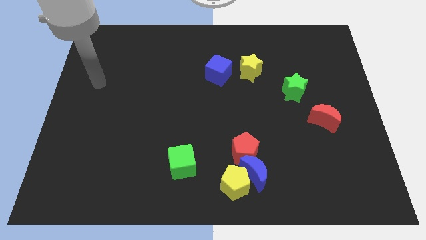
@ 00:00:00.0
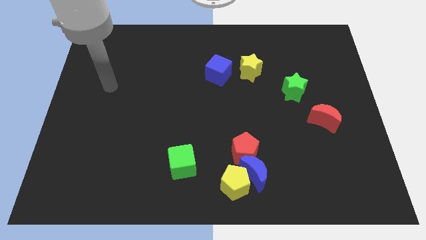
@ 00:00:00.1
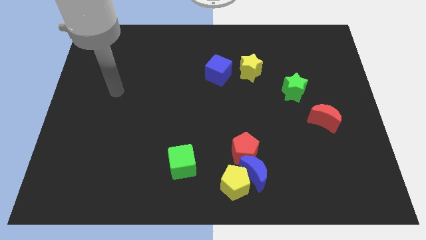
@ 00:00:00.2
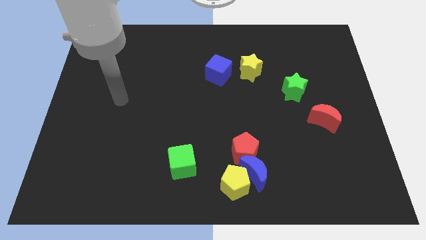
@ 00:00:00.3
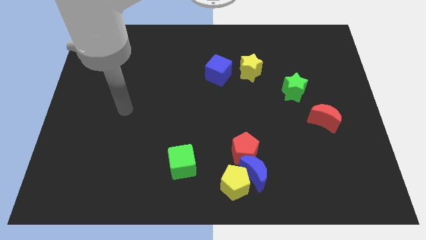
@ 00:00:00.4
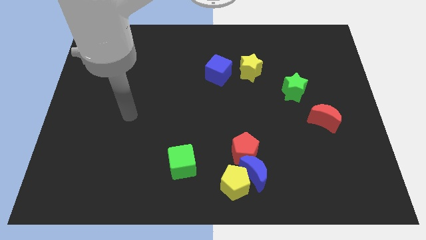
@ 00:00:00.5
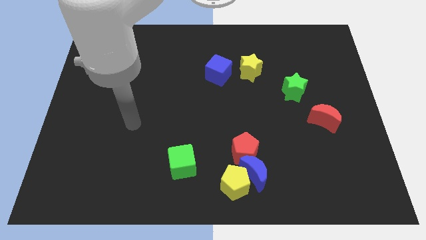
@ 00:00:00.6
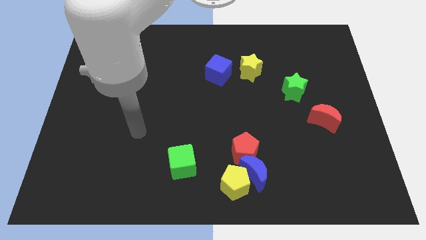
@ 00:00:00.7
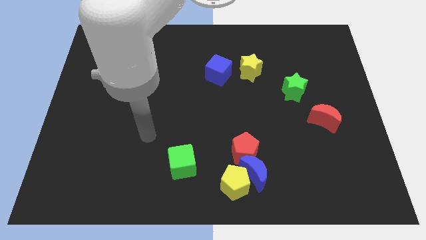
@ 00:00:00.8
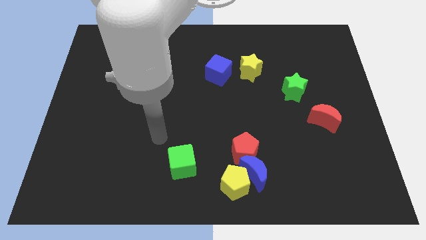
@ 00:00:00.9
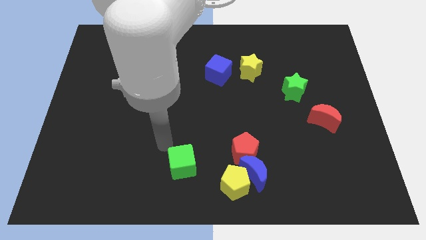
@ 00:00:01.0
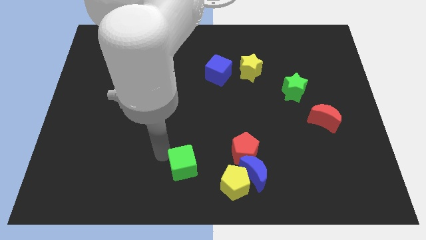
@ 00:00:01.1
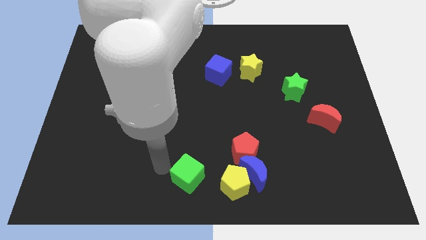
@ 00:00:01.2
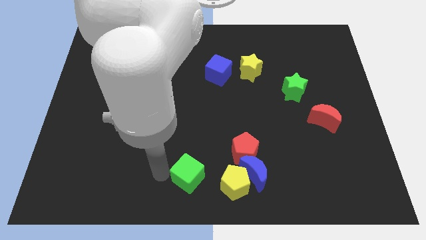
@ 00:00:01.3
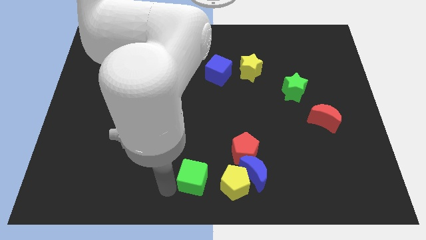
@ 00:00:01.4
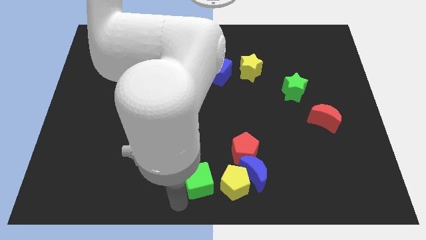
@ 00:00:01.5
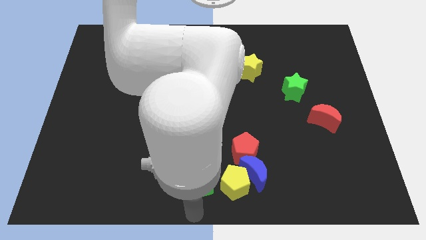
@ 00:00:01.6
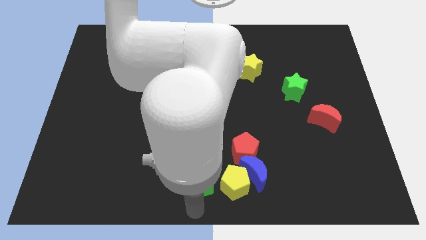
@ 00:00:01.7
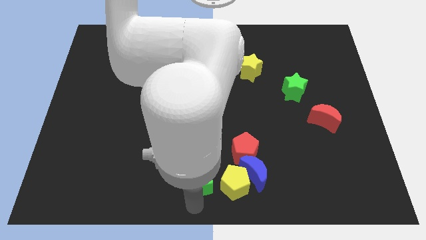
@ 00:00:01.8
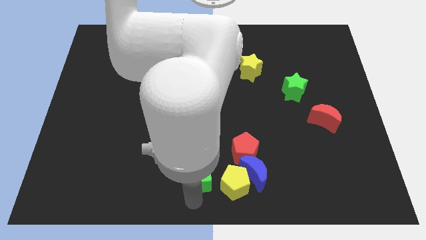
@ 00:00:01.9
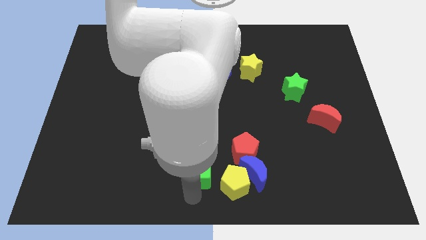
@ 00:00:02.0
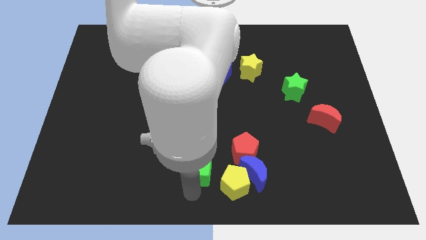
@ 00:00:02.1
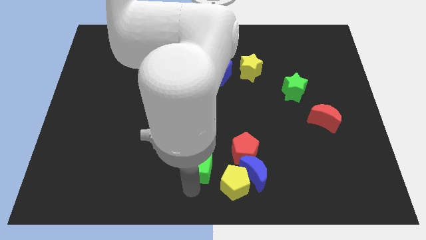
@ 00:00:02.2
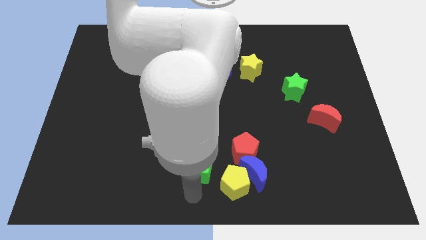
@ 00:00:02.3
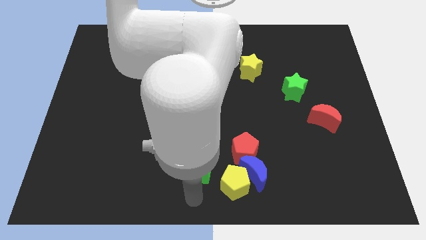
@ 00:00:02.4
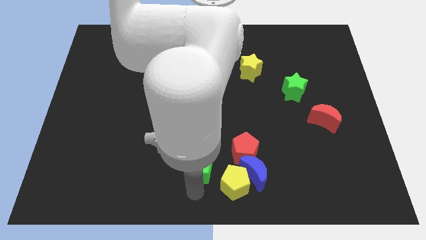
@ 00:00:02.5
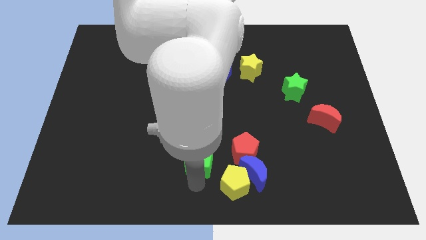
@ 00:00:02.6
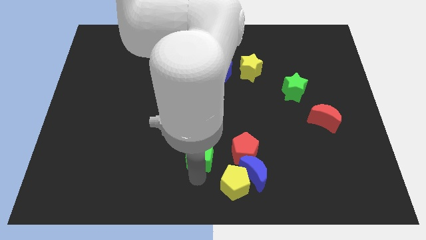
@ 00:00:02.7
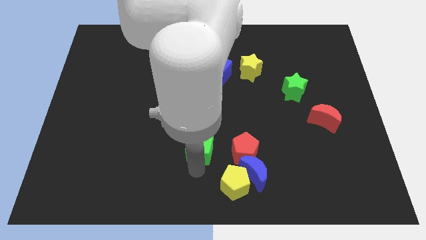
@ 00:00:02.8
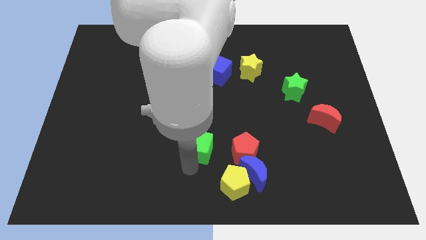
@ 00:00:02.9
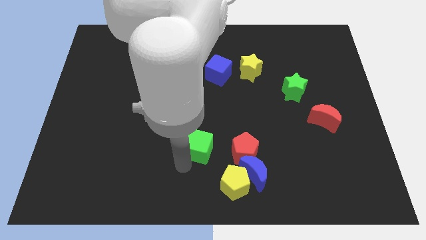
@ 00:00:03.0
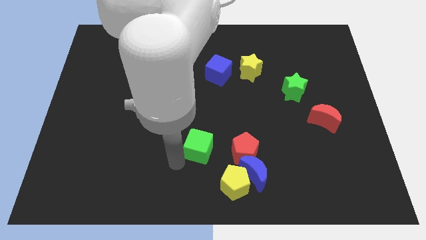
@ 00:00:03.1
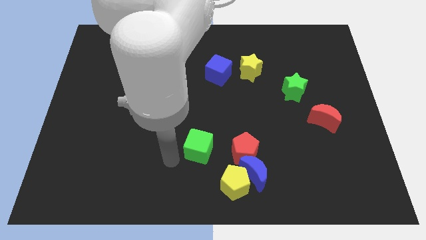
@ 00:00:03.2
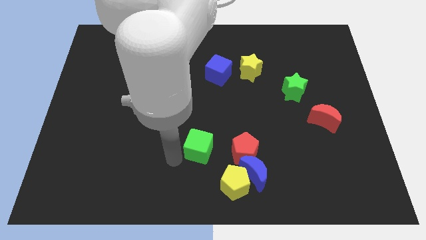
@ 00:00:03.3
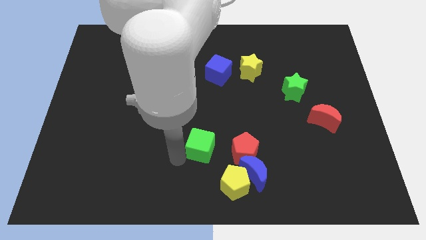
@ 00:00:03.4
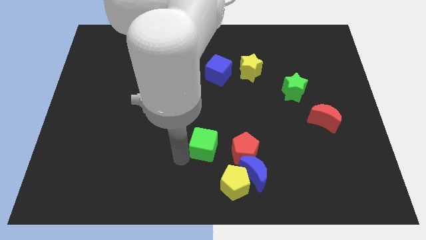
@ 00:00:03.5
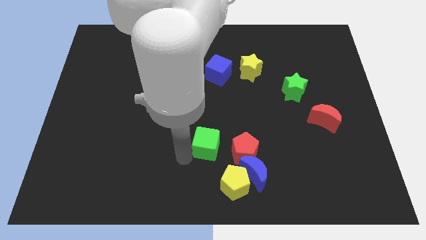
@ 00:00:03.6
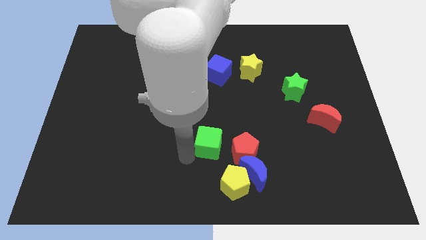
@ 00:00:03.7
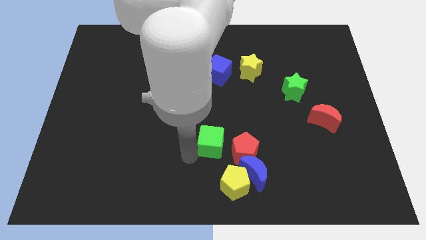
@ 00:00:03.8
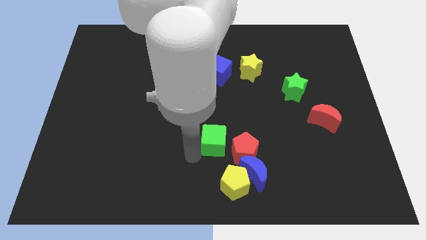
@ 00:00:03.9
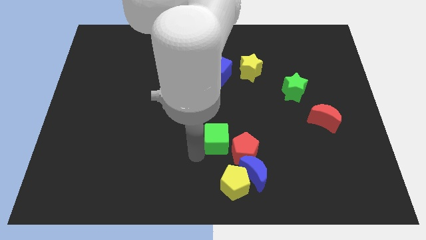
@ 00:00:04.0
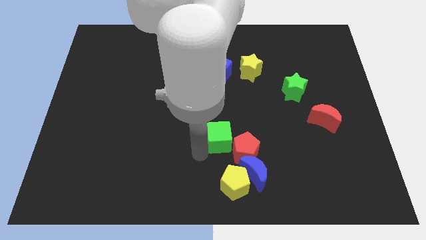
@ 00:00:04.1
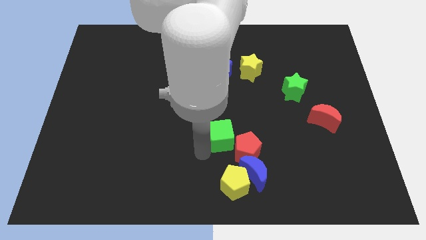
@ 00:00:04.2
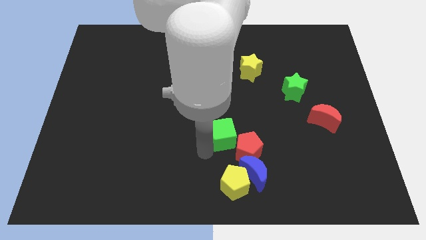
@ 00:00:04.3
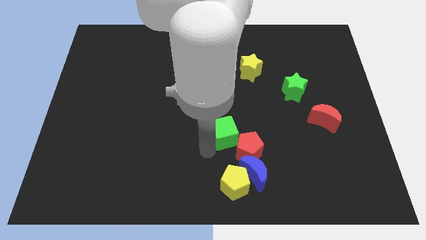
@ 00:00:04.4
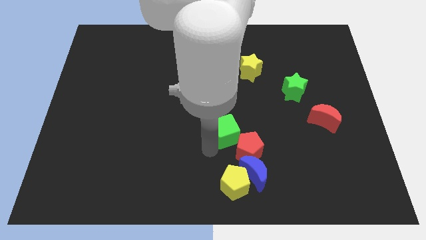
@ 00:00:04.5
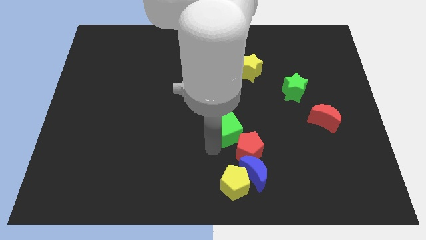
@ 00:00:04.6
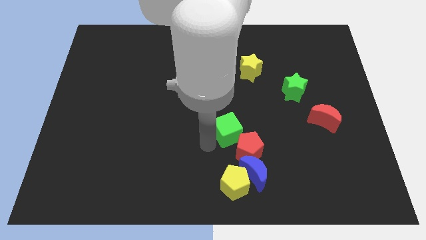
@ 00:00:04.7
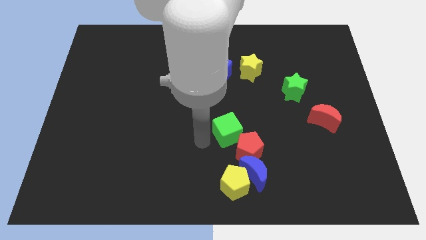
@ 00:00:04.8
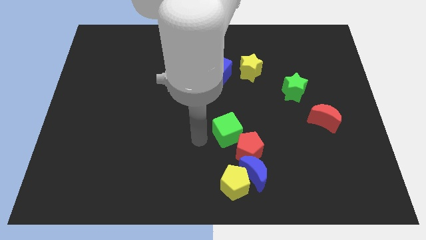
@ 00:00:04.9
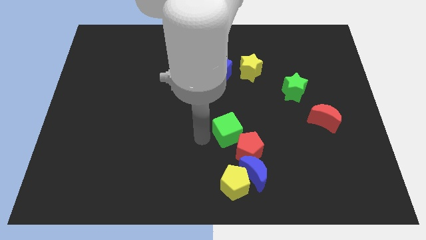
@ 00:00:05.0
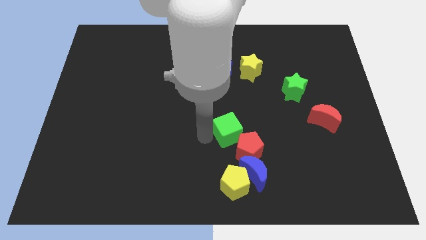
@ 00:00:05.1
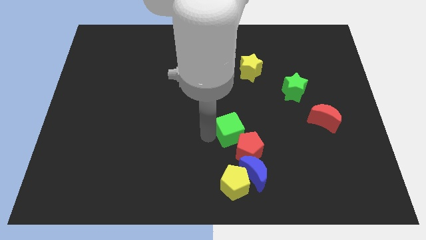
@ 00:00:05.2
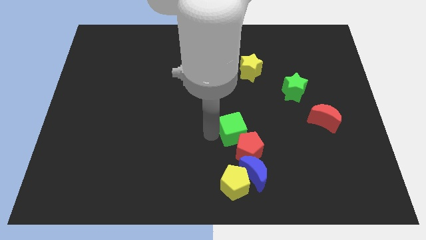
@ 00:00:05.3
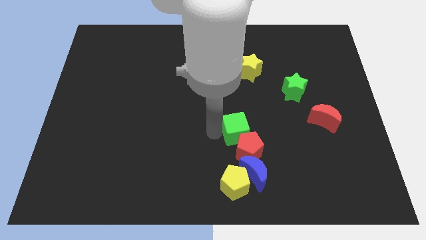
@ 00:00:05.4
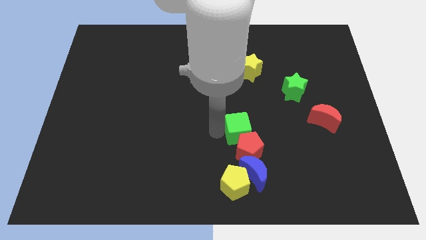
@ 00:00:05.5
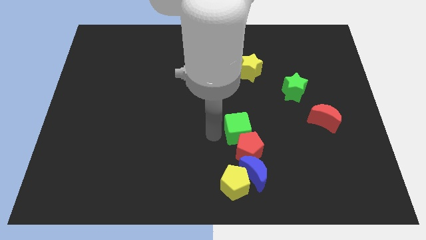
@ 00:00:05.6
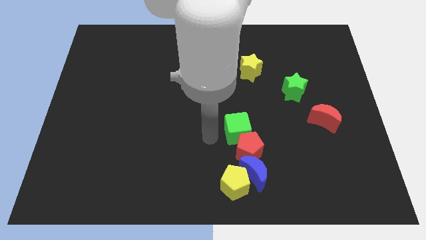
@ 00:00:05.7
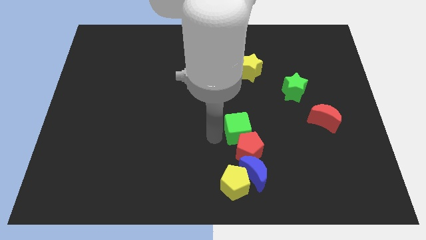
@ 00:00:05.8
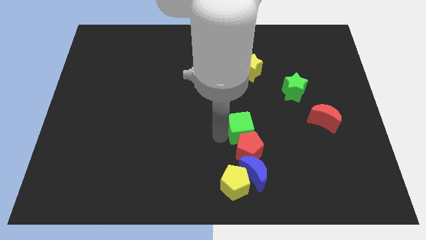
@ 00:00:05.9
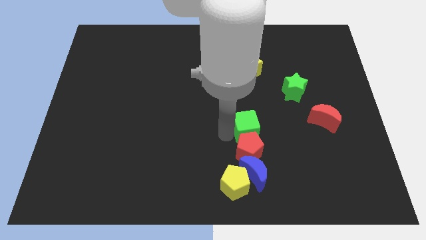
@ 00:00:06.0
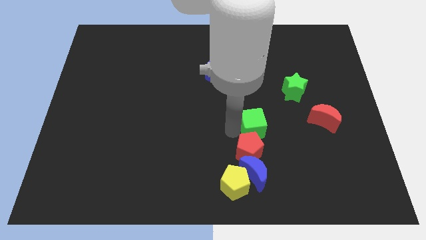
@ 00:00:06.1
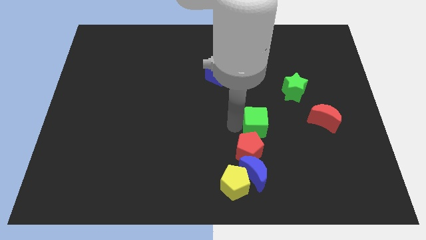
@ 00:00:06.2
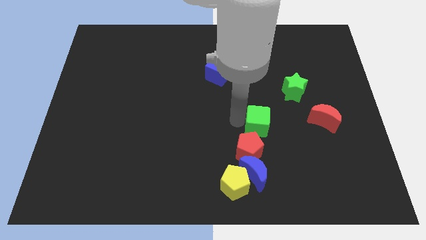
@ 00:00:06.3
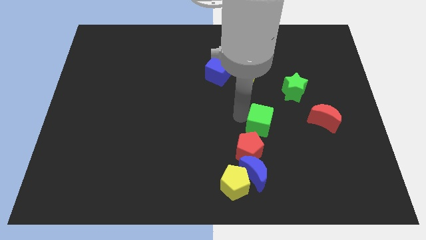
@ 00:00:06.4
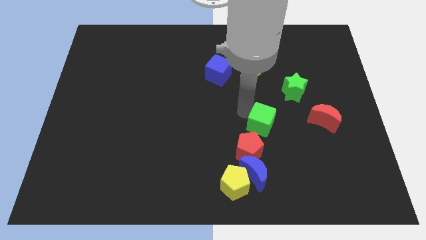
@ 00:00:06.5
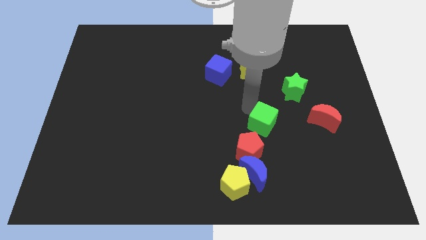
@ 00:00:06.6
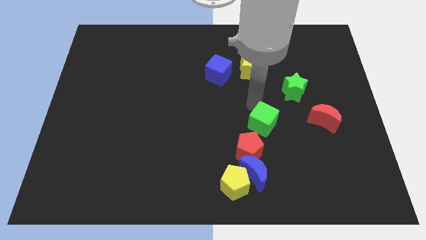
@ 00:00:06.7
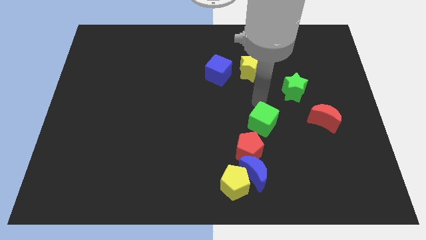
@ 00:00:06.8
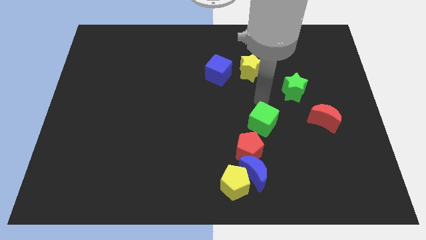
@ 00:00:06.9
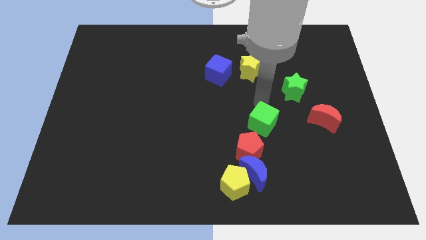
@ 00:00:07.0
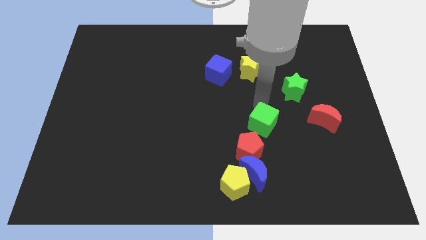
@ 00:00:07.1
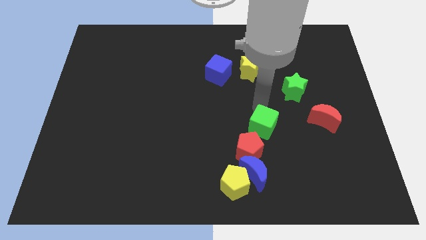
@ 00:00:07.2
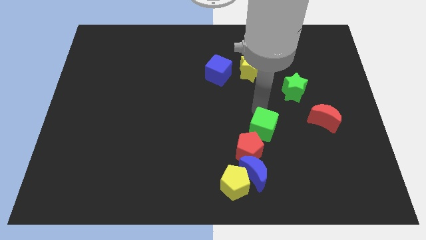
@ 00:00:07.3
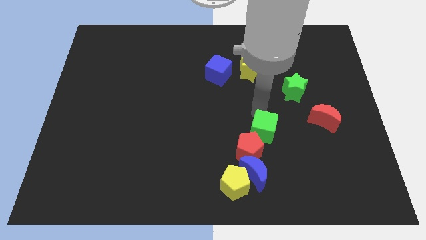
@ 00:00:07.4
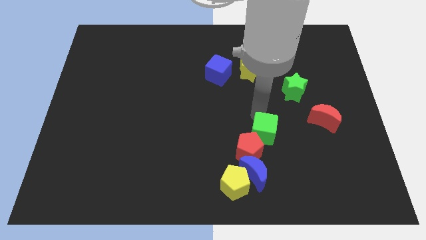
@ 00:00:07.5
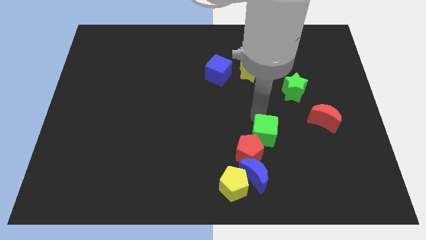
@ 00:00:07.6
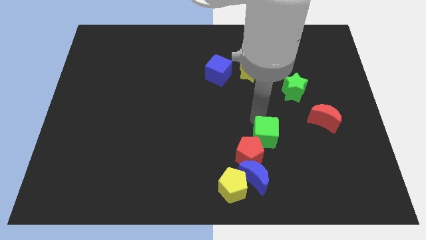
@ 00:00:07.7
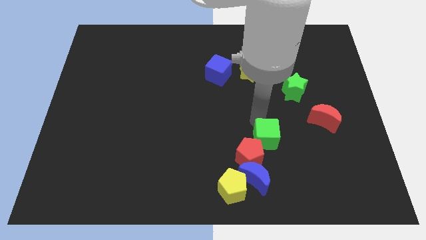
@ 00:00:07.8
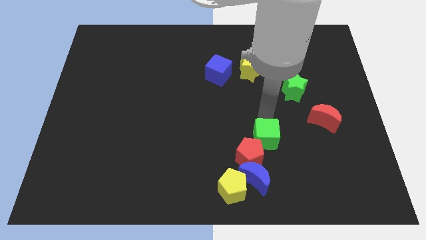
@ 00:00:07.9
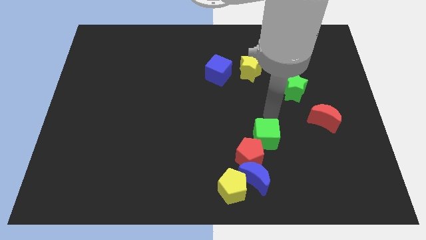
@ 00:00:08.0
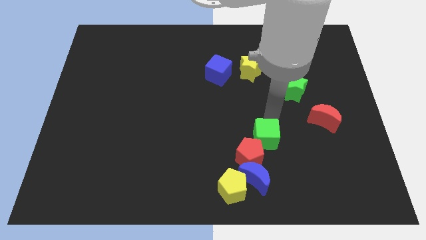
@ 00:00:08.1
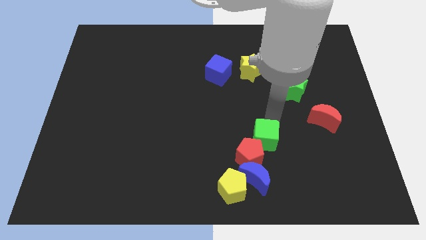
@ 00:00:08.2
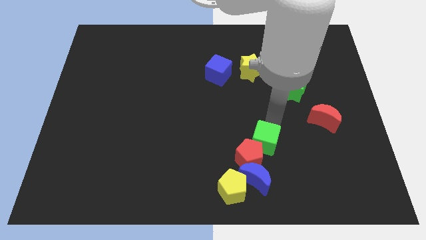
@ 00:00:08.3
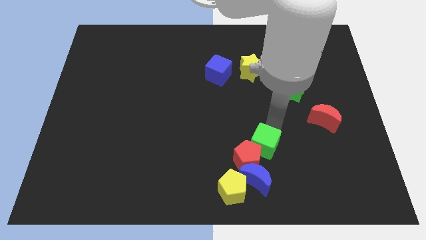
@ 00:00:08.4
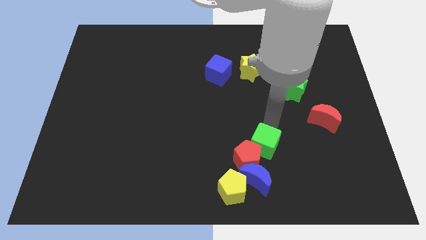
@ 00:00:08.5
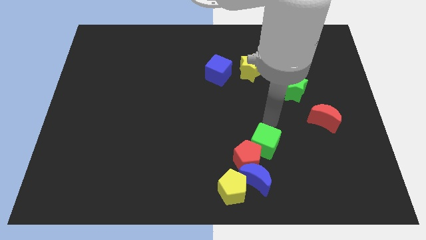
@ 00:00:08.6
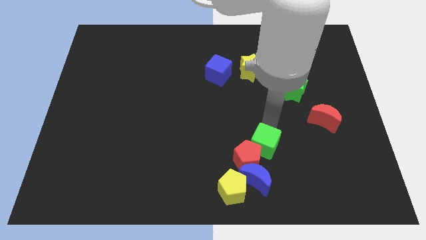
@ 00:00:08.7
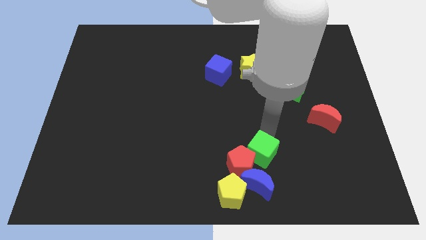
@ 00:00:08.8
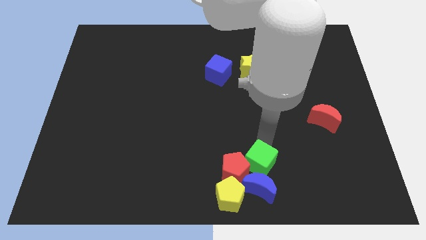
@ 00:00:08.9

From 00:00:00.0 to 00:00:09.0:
push the green cube towards the blue moon
